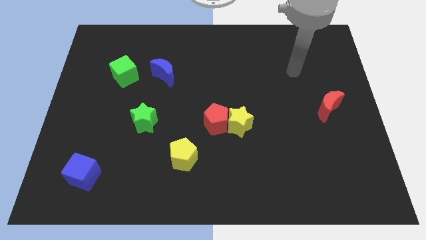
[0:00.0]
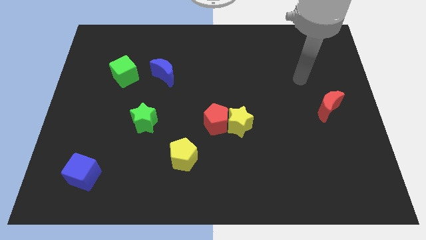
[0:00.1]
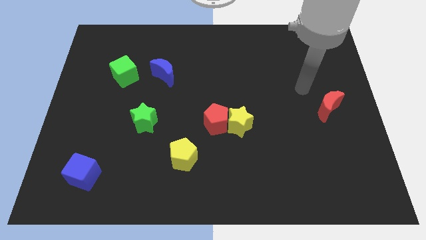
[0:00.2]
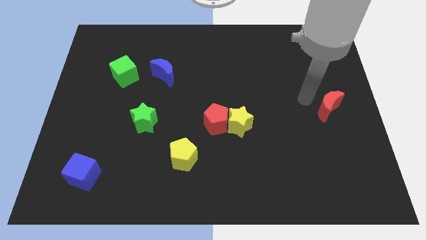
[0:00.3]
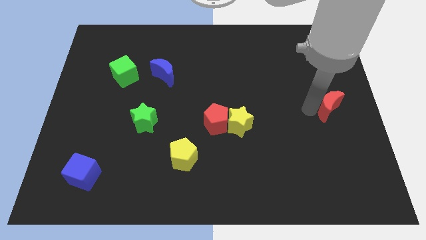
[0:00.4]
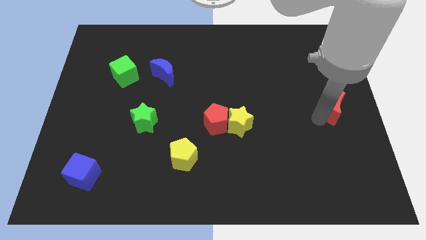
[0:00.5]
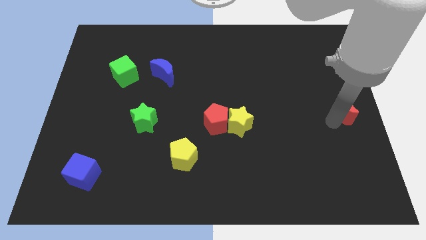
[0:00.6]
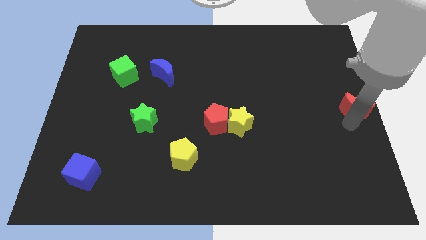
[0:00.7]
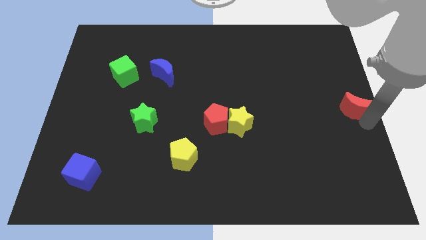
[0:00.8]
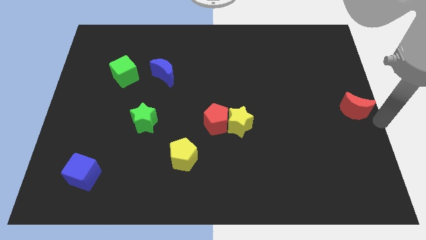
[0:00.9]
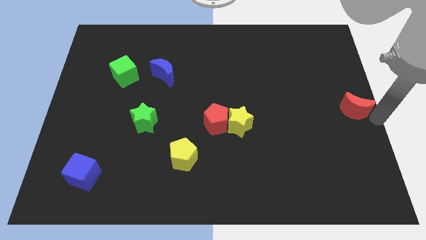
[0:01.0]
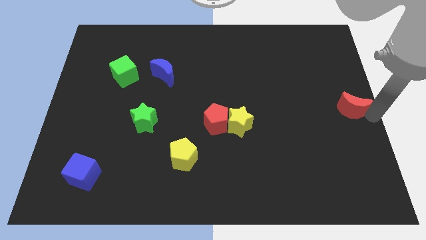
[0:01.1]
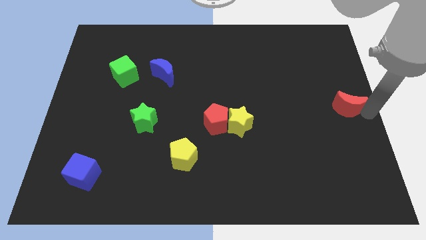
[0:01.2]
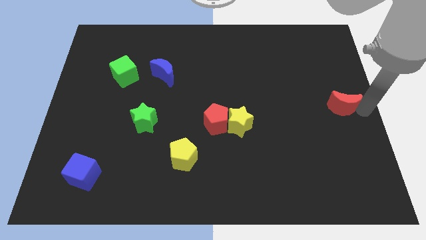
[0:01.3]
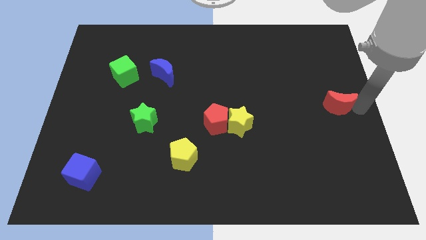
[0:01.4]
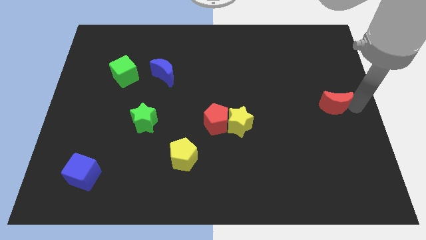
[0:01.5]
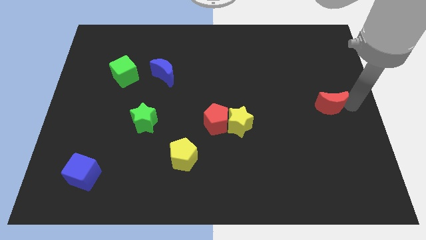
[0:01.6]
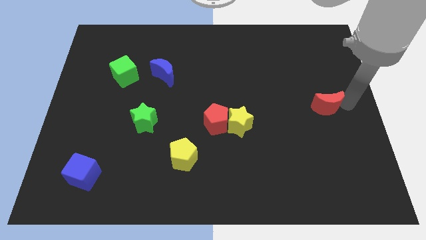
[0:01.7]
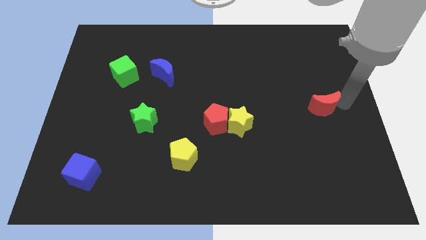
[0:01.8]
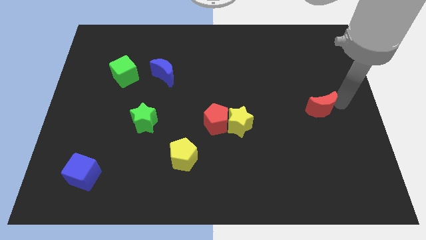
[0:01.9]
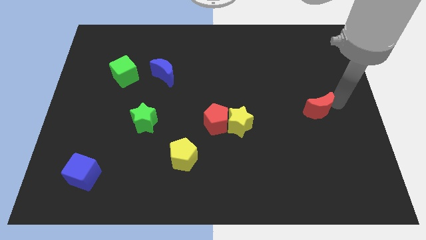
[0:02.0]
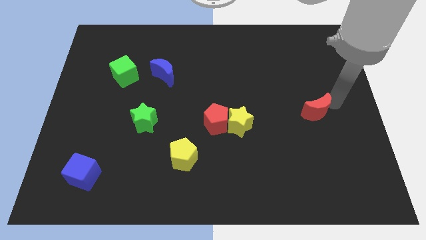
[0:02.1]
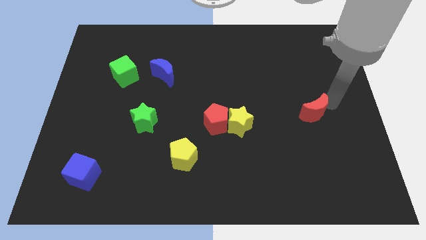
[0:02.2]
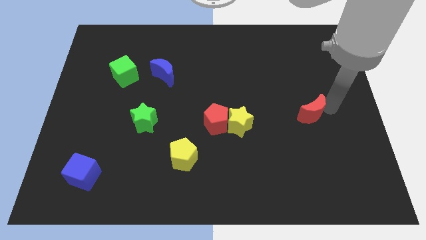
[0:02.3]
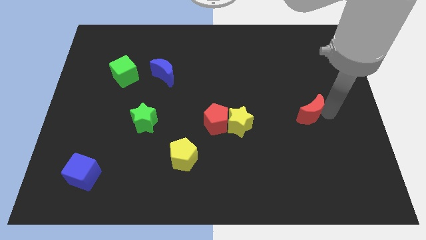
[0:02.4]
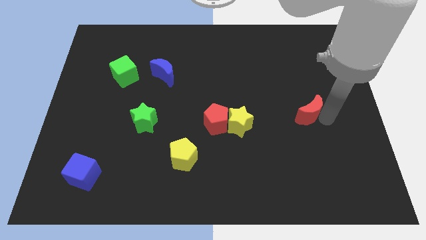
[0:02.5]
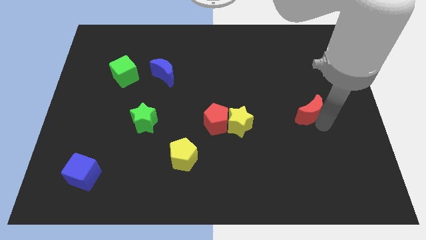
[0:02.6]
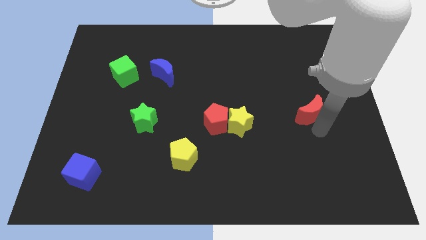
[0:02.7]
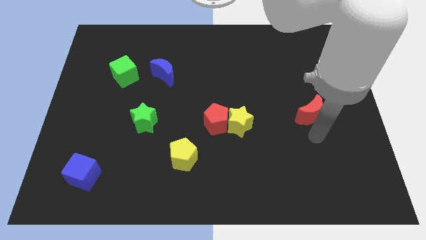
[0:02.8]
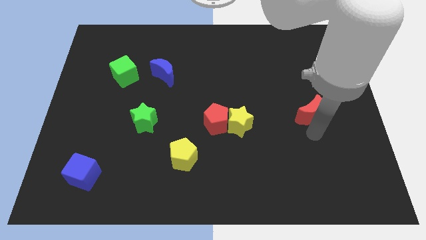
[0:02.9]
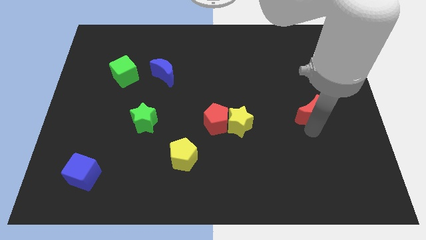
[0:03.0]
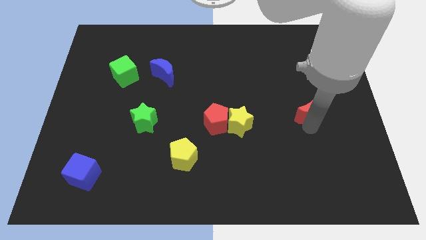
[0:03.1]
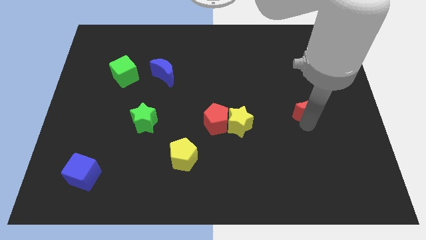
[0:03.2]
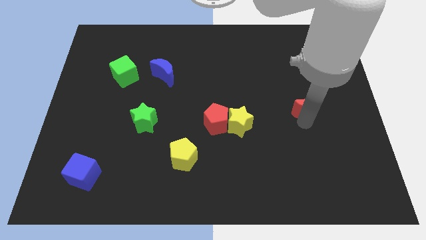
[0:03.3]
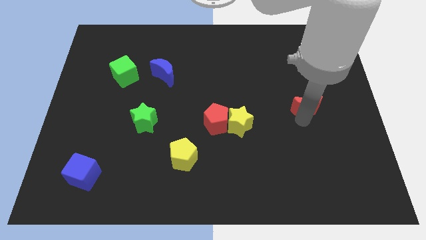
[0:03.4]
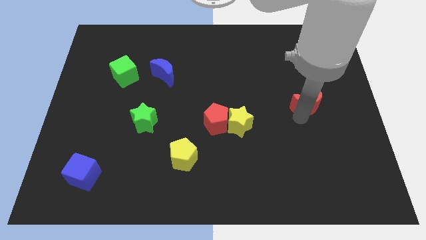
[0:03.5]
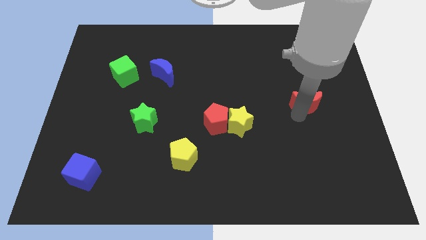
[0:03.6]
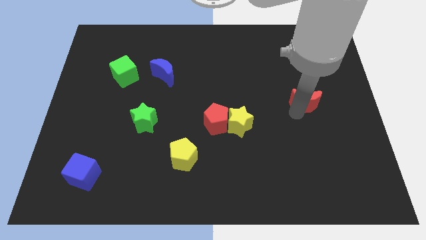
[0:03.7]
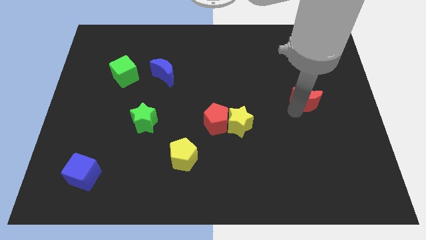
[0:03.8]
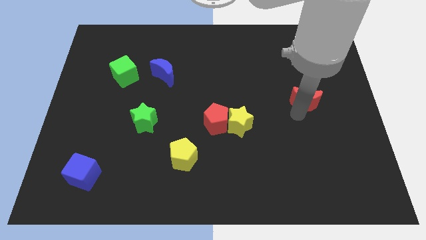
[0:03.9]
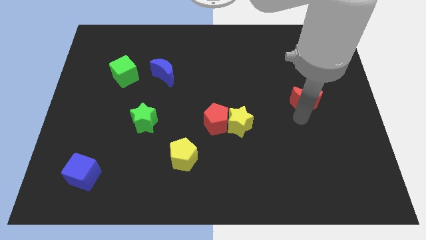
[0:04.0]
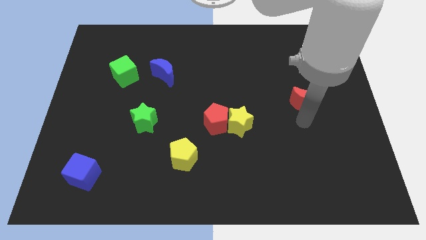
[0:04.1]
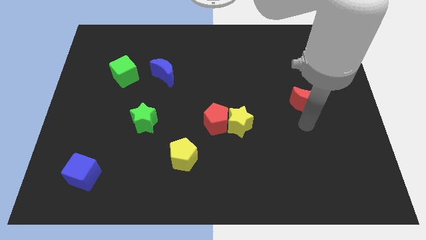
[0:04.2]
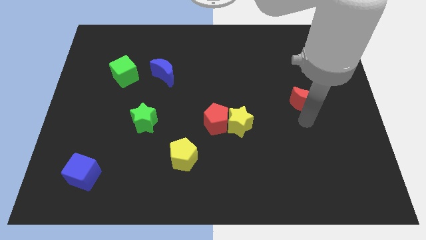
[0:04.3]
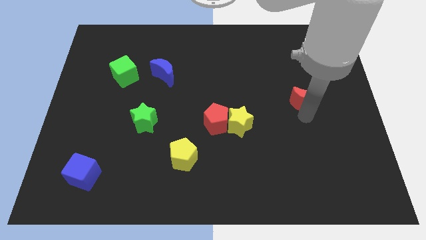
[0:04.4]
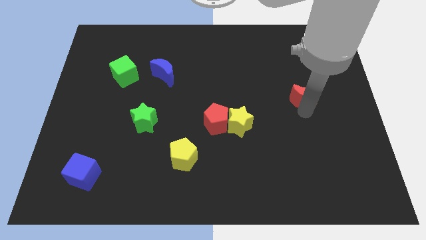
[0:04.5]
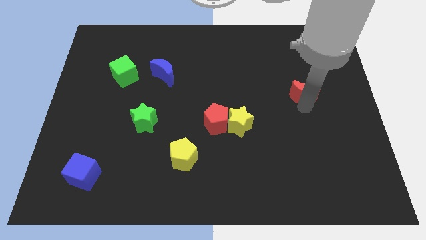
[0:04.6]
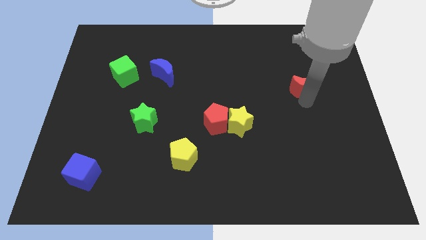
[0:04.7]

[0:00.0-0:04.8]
move the red moon diagonally up and to the left a bit

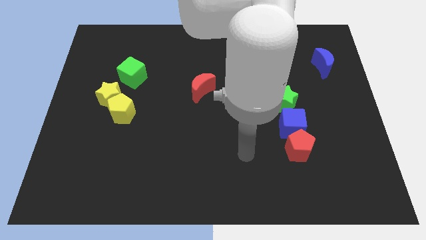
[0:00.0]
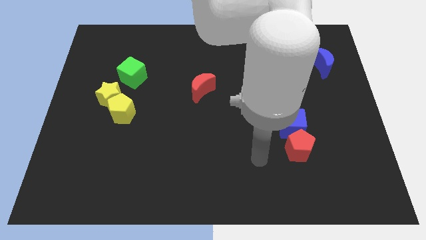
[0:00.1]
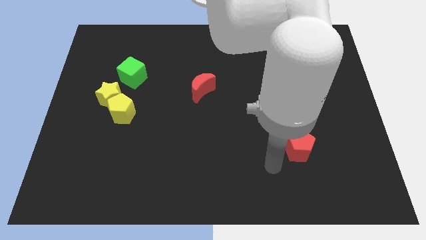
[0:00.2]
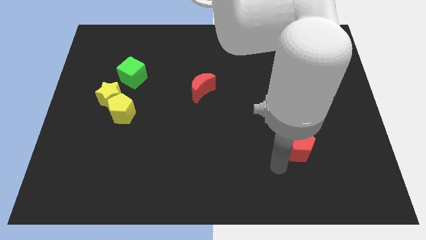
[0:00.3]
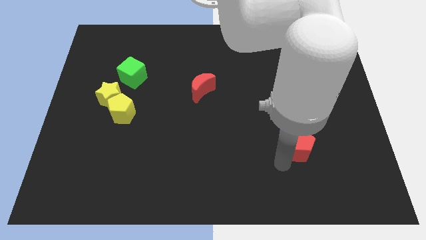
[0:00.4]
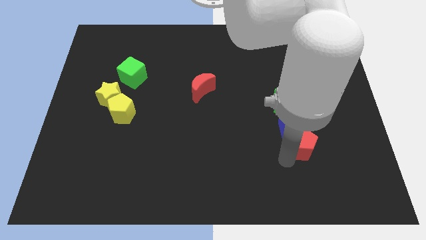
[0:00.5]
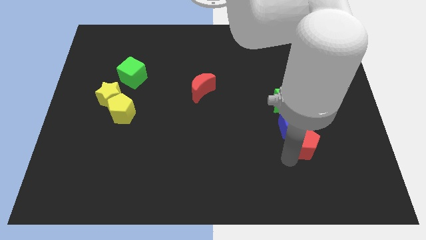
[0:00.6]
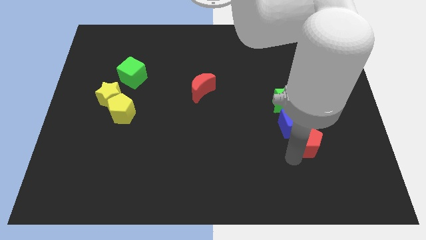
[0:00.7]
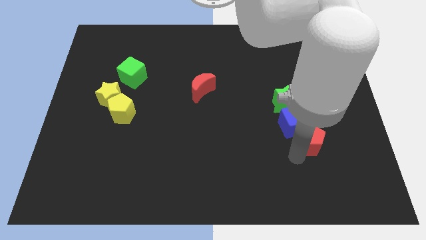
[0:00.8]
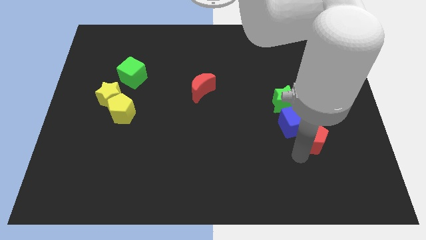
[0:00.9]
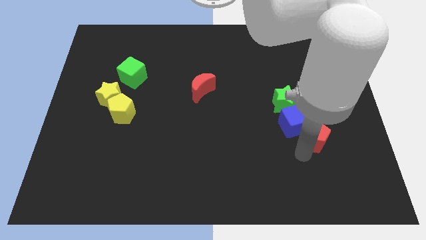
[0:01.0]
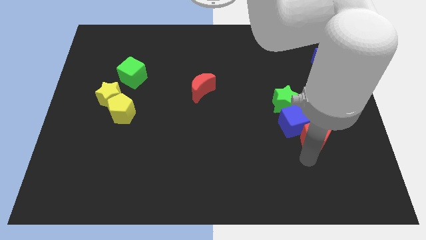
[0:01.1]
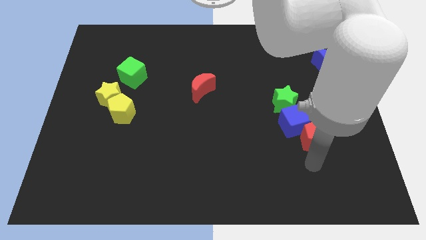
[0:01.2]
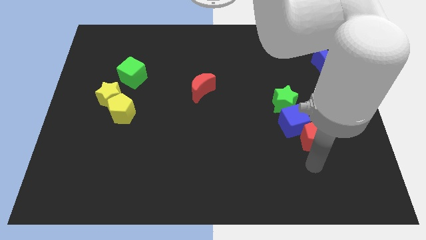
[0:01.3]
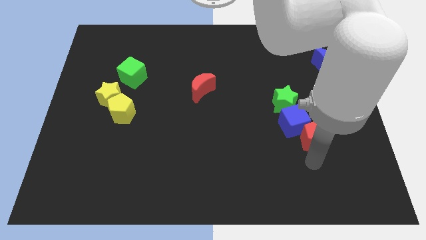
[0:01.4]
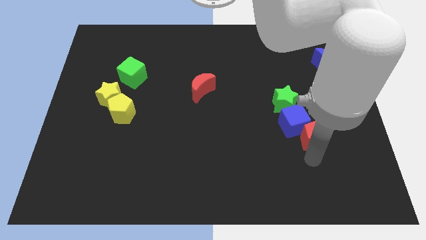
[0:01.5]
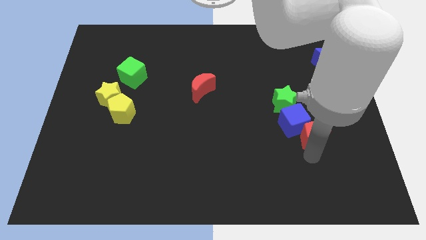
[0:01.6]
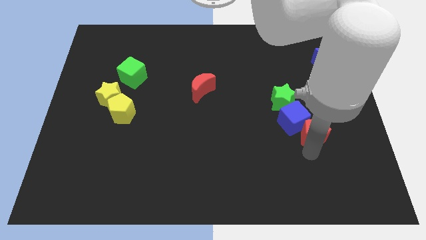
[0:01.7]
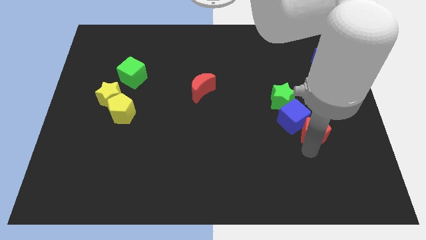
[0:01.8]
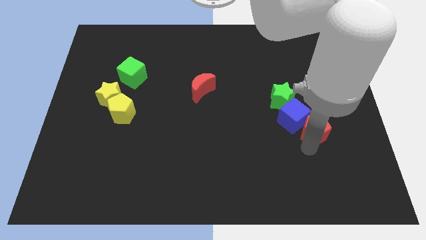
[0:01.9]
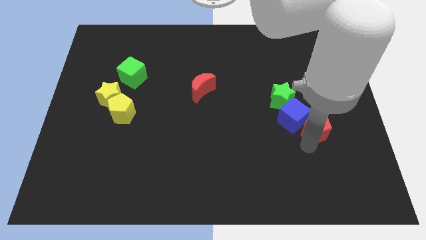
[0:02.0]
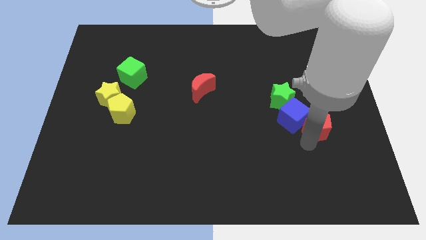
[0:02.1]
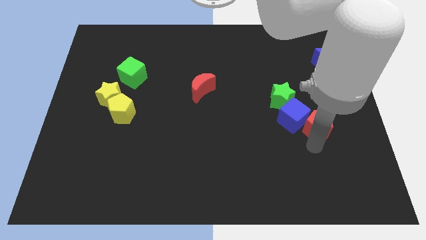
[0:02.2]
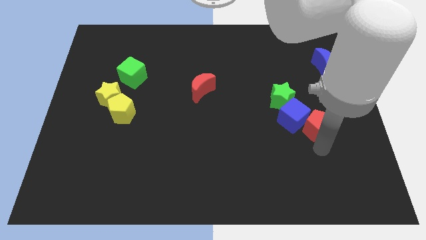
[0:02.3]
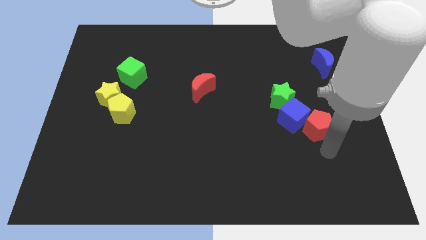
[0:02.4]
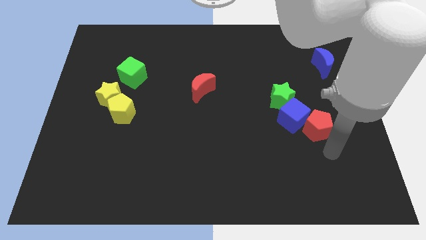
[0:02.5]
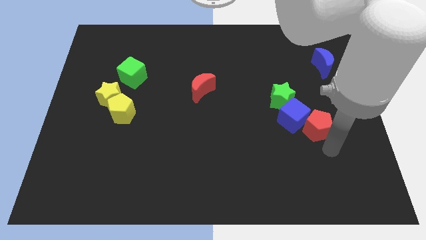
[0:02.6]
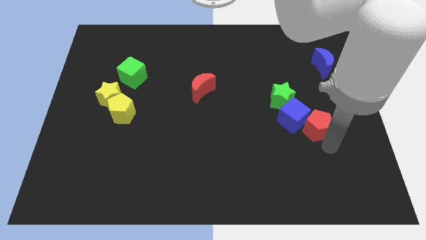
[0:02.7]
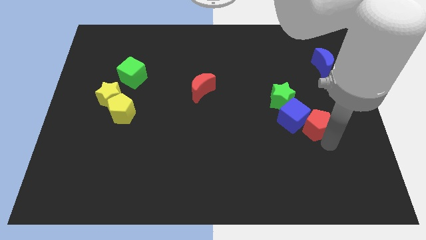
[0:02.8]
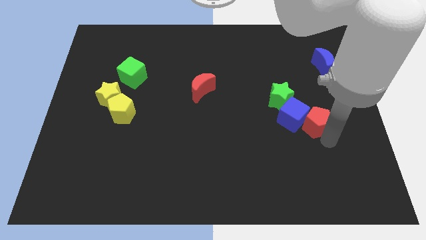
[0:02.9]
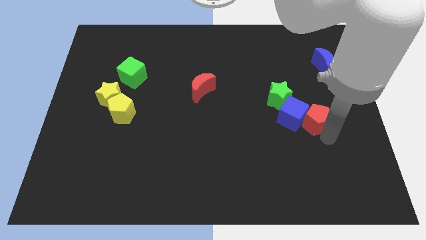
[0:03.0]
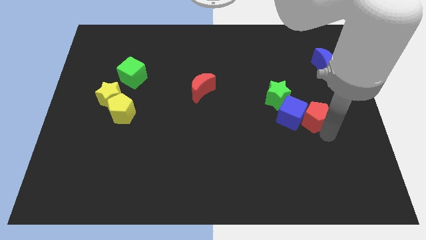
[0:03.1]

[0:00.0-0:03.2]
slightly push the red pentagon up
